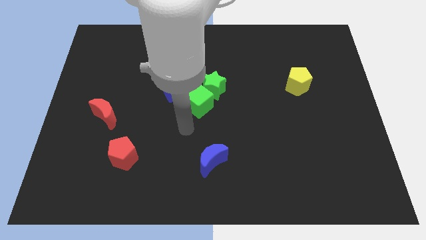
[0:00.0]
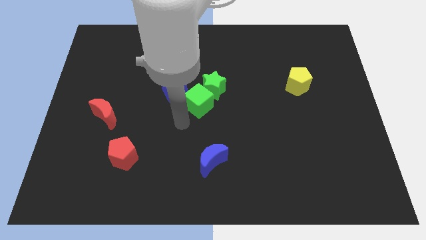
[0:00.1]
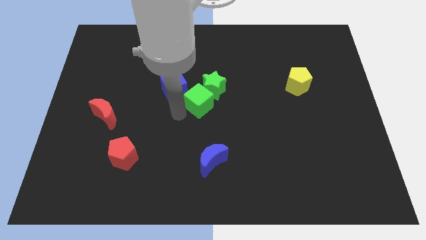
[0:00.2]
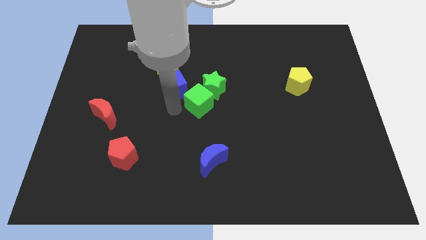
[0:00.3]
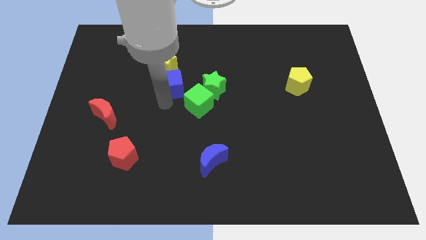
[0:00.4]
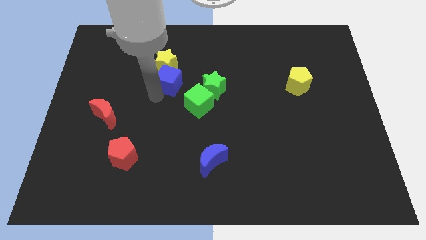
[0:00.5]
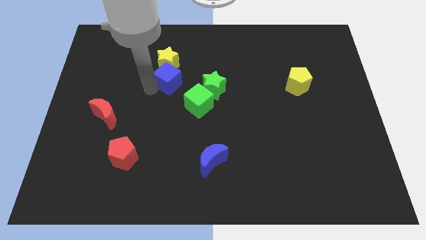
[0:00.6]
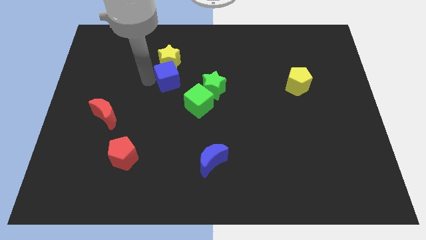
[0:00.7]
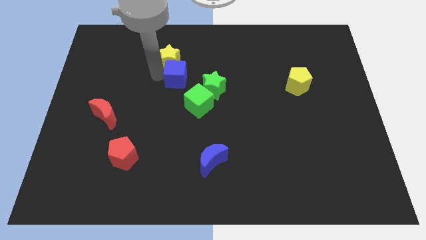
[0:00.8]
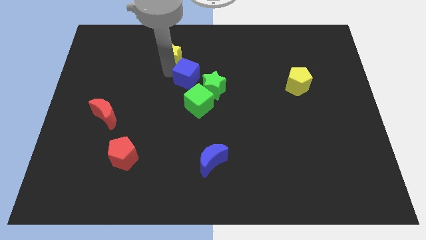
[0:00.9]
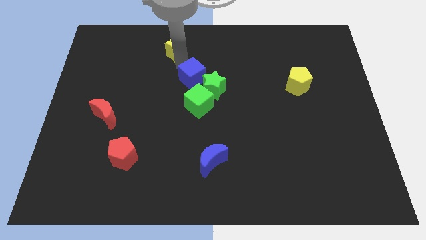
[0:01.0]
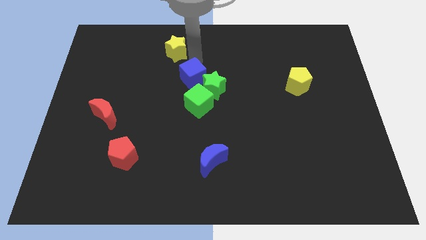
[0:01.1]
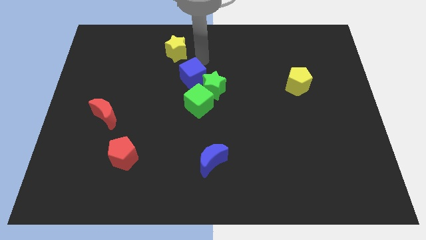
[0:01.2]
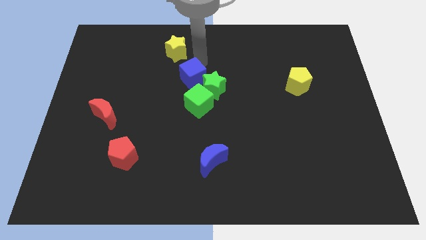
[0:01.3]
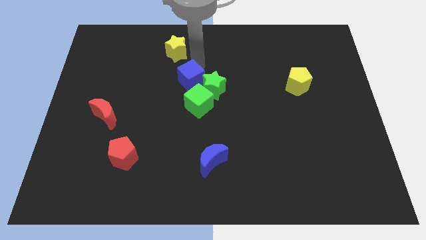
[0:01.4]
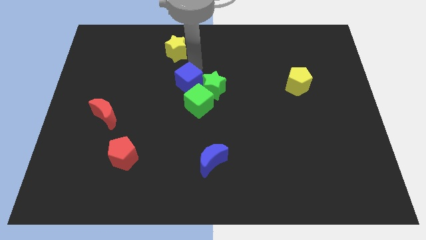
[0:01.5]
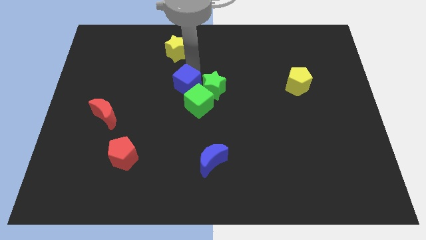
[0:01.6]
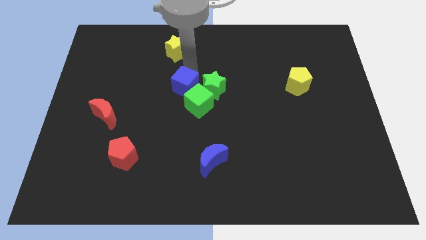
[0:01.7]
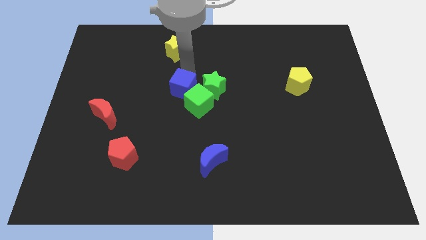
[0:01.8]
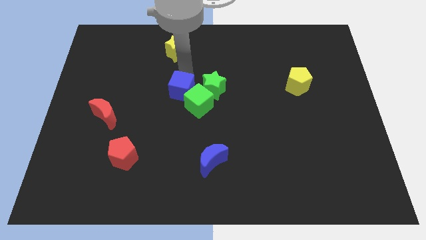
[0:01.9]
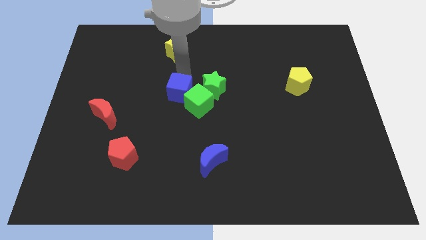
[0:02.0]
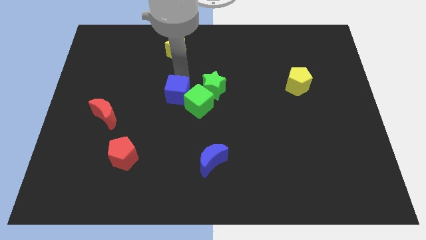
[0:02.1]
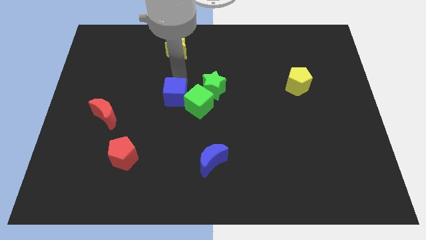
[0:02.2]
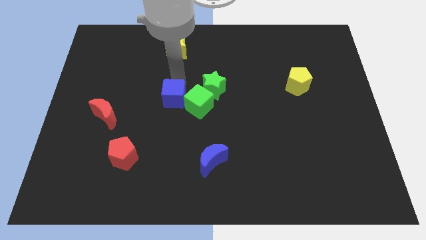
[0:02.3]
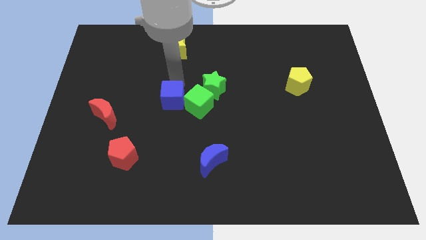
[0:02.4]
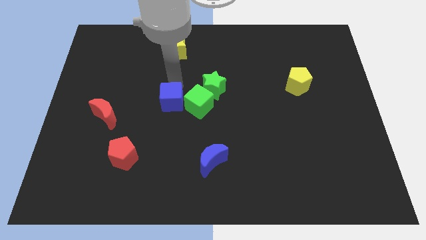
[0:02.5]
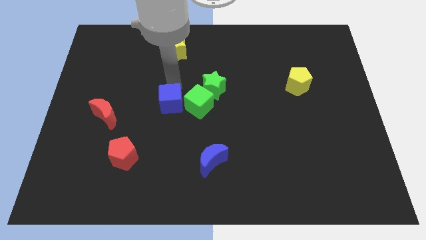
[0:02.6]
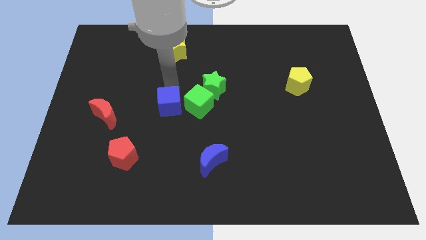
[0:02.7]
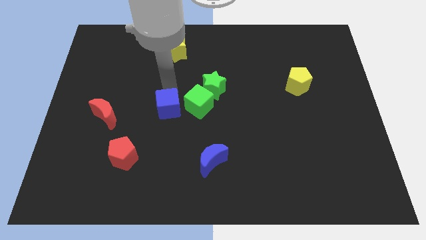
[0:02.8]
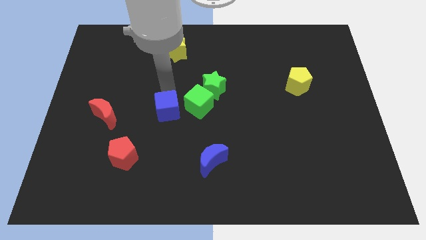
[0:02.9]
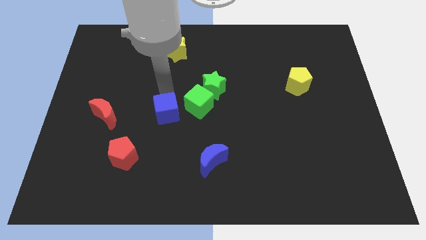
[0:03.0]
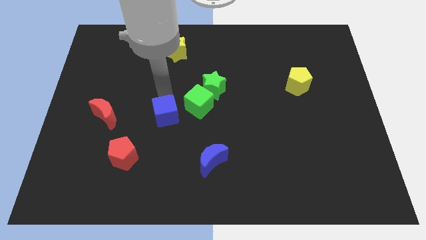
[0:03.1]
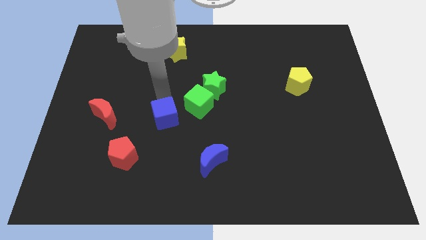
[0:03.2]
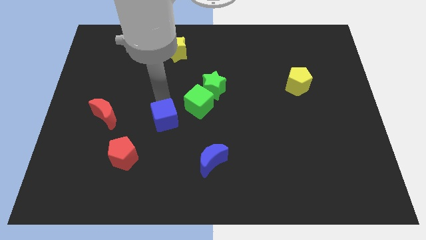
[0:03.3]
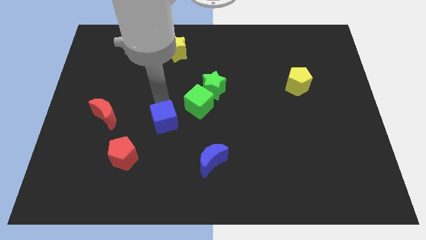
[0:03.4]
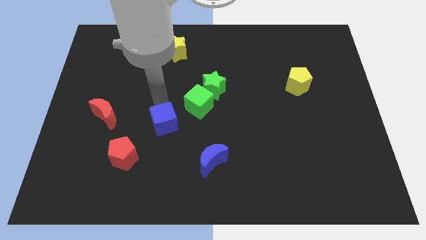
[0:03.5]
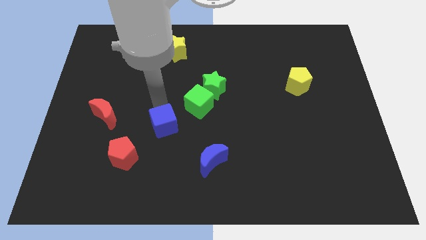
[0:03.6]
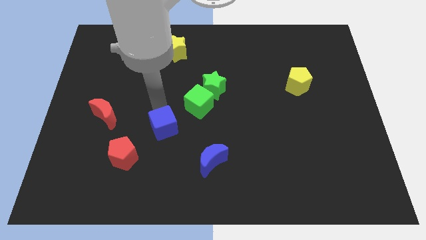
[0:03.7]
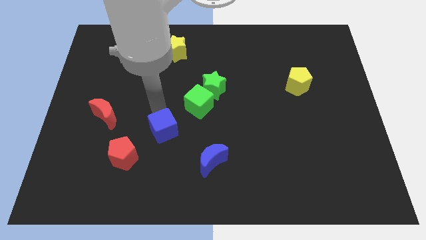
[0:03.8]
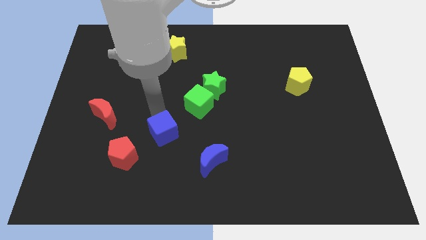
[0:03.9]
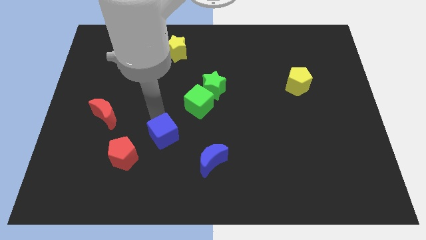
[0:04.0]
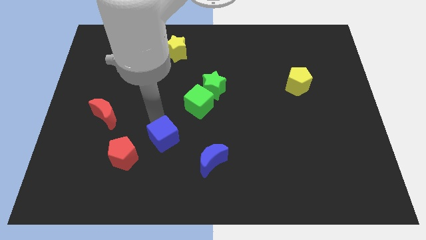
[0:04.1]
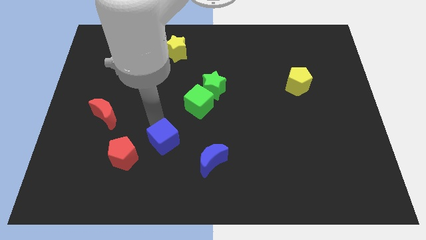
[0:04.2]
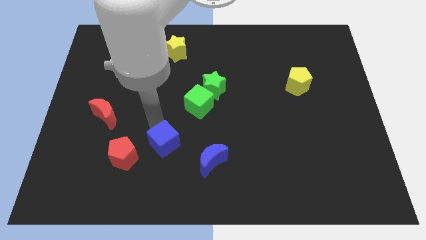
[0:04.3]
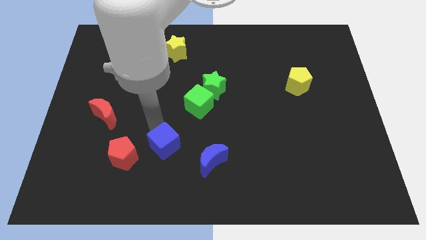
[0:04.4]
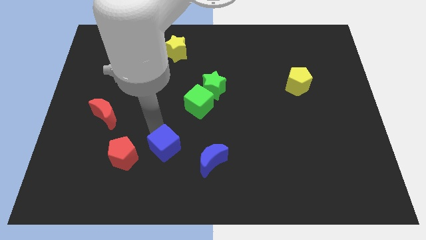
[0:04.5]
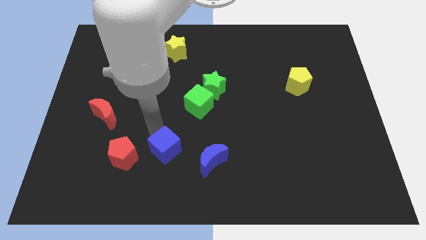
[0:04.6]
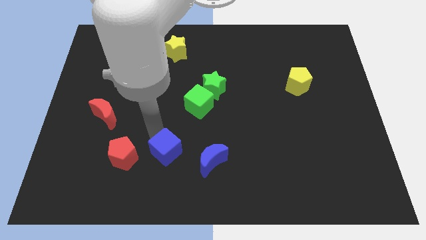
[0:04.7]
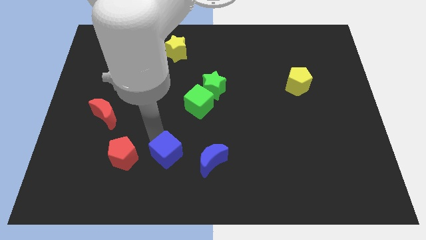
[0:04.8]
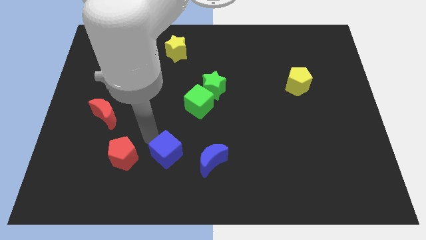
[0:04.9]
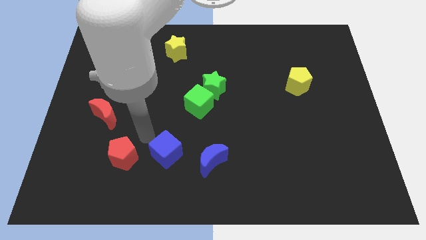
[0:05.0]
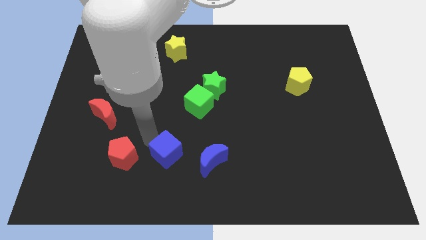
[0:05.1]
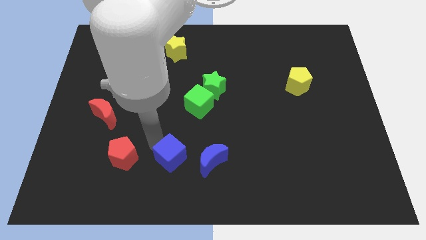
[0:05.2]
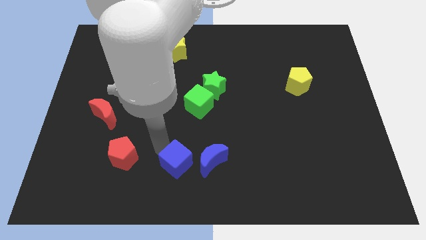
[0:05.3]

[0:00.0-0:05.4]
push the blue cube to the bottom

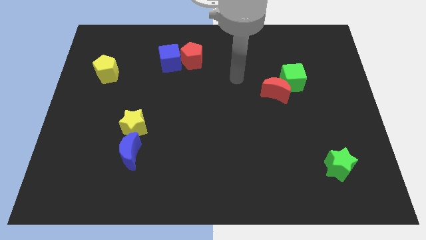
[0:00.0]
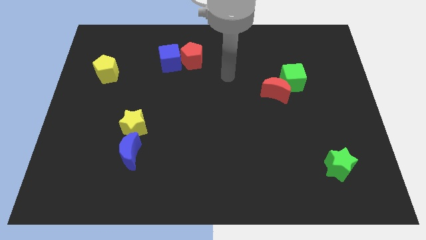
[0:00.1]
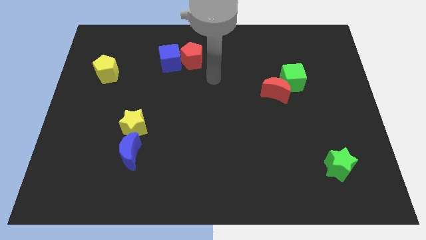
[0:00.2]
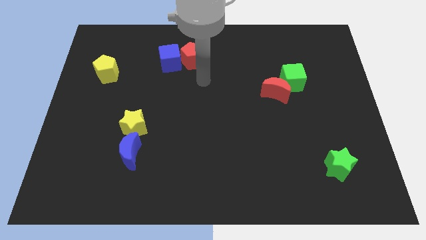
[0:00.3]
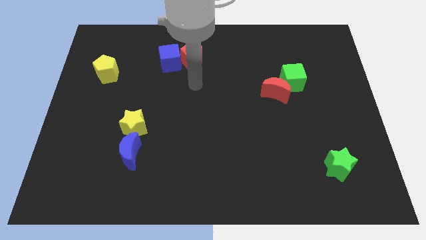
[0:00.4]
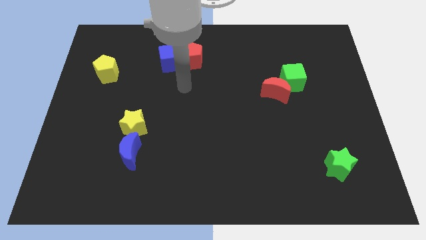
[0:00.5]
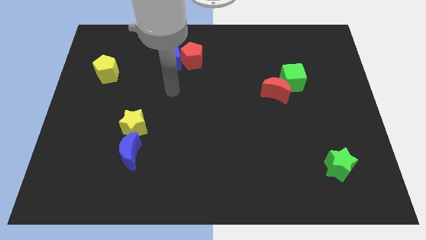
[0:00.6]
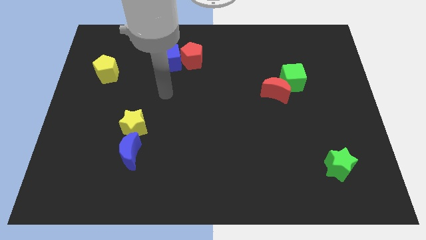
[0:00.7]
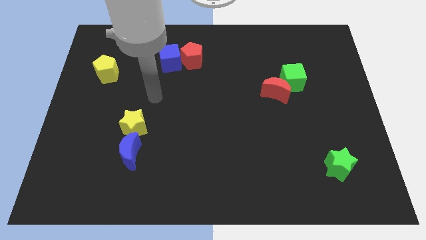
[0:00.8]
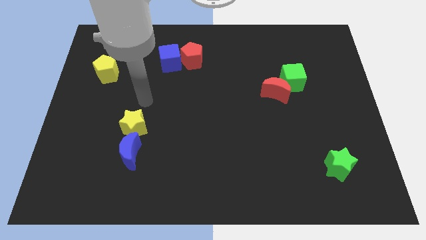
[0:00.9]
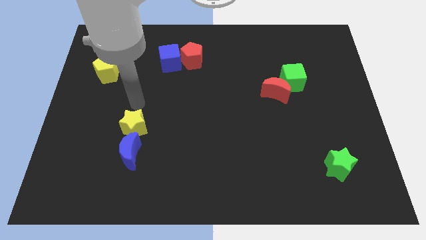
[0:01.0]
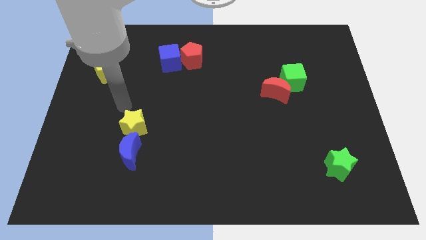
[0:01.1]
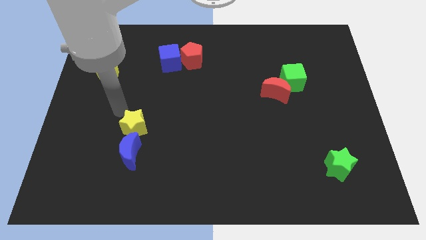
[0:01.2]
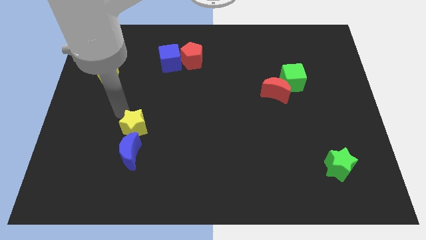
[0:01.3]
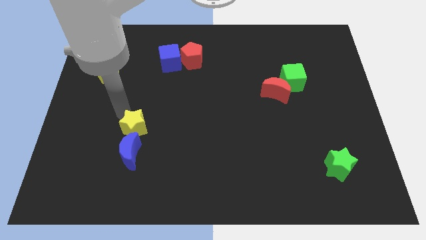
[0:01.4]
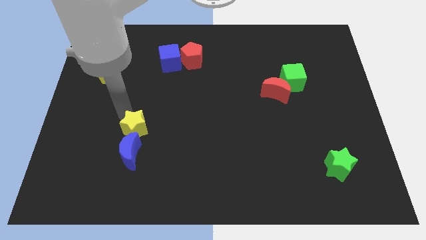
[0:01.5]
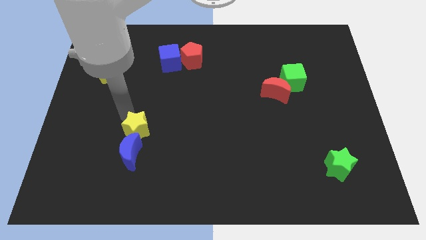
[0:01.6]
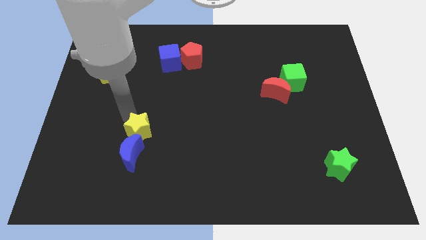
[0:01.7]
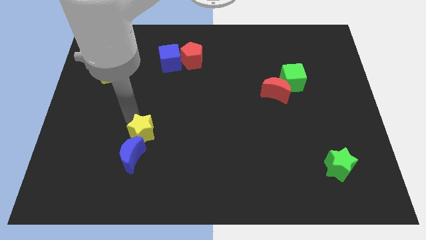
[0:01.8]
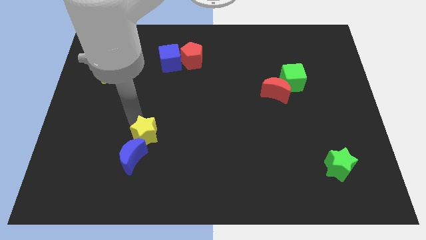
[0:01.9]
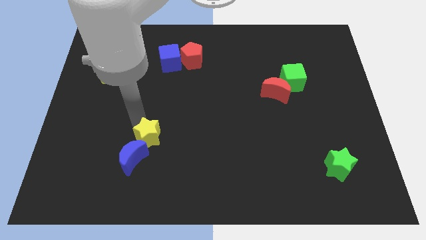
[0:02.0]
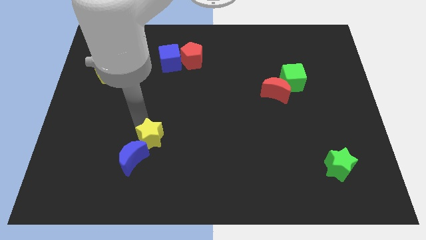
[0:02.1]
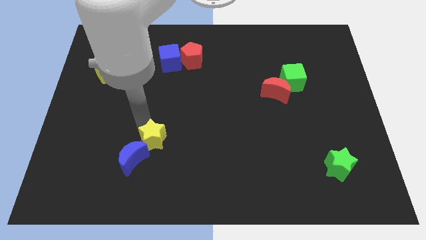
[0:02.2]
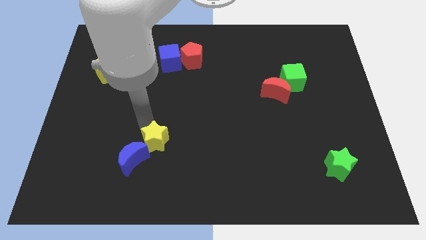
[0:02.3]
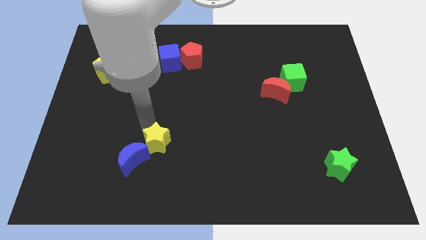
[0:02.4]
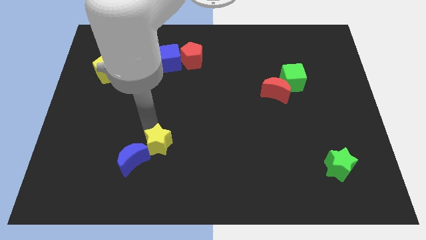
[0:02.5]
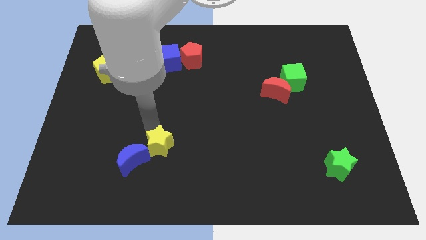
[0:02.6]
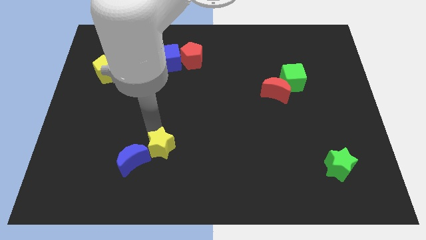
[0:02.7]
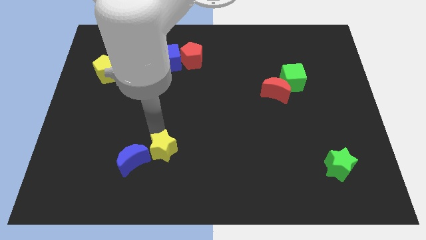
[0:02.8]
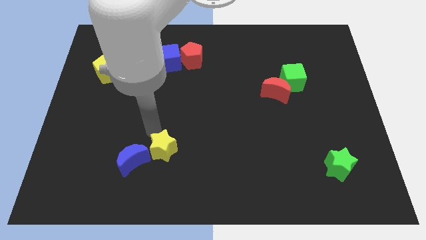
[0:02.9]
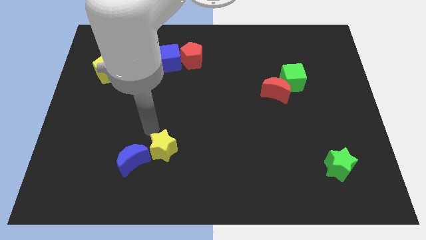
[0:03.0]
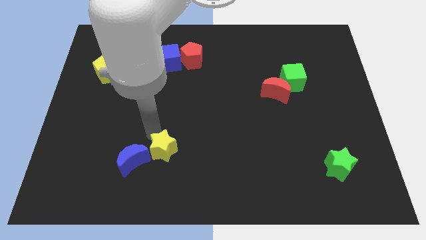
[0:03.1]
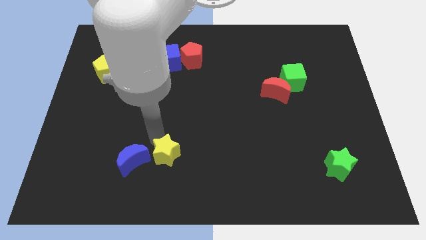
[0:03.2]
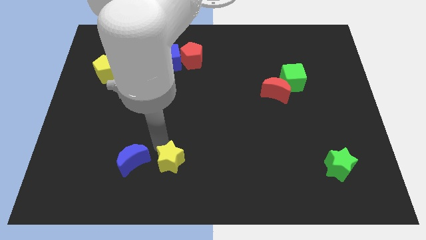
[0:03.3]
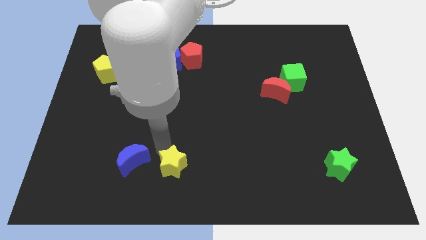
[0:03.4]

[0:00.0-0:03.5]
push the yellow star to the bottom side
